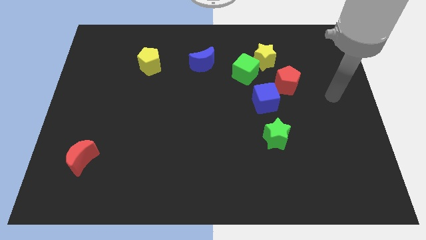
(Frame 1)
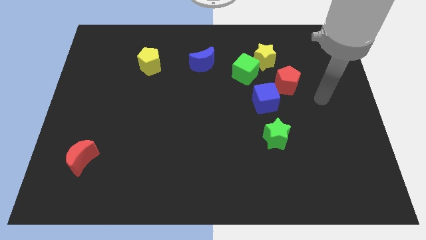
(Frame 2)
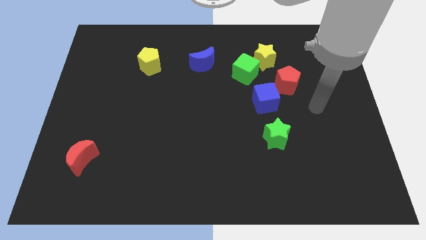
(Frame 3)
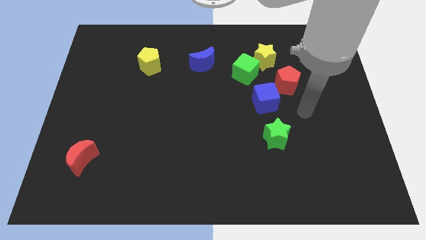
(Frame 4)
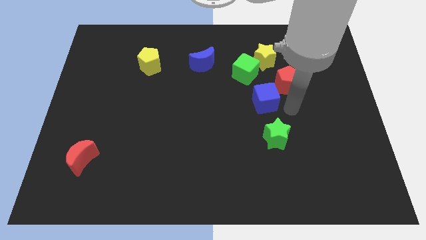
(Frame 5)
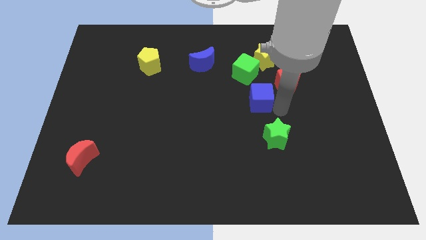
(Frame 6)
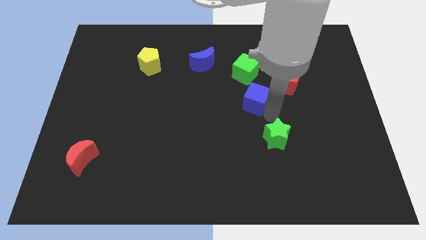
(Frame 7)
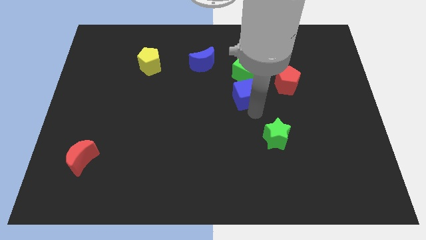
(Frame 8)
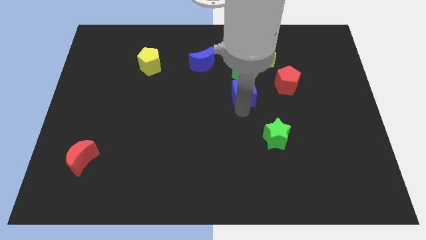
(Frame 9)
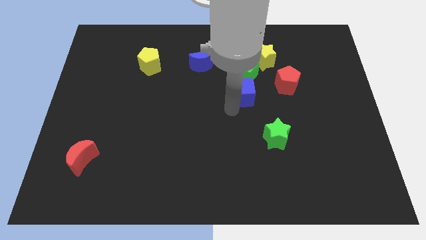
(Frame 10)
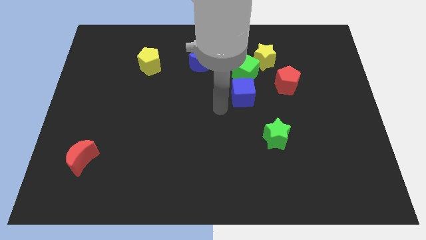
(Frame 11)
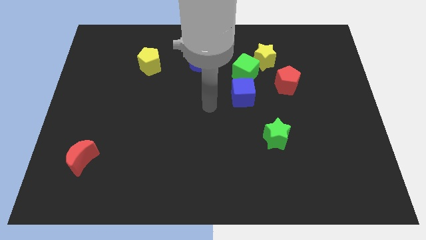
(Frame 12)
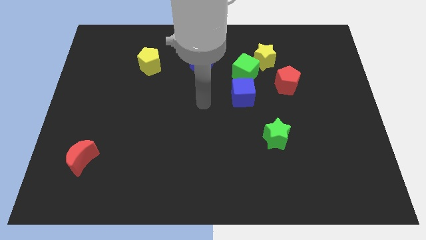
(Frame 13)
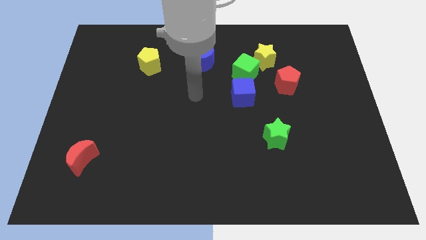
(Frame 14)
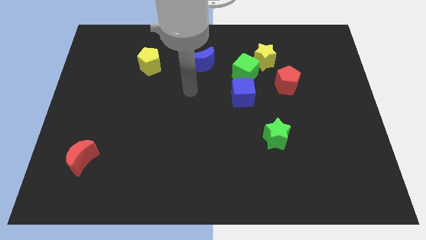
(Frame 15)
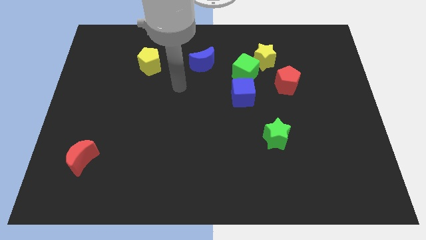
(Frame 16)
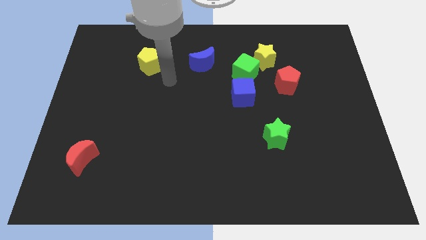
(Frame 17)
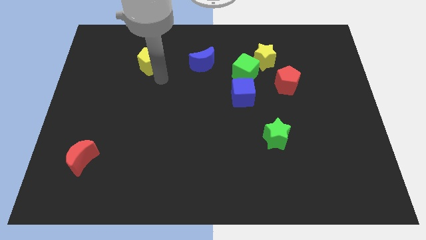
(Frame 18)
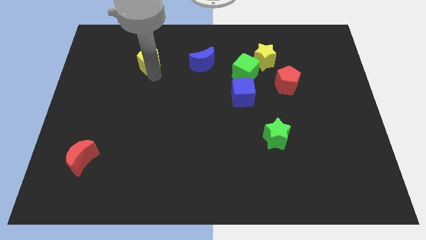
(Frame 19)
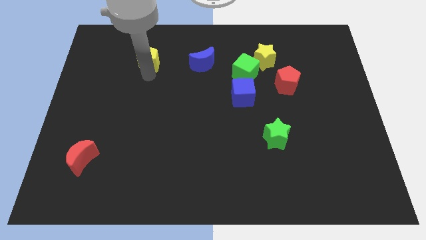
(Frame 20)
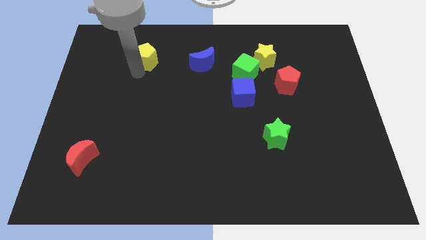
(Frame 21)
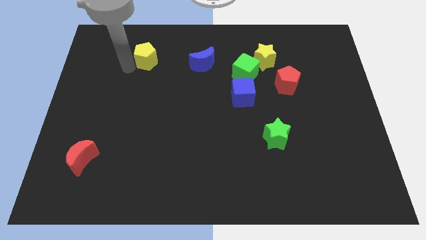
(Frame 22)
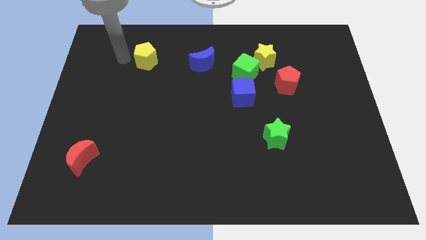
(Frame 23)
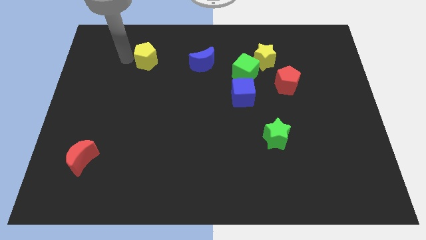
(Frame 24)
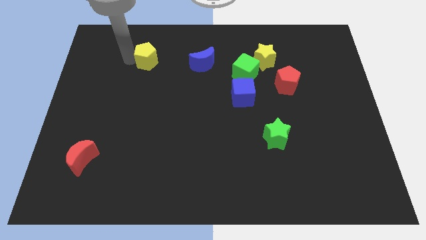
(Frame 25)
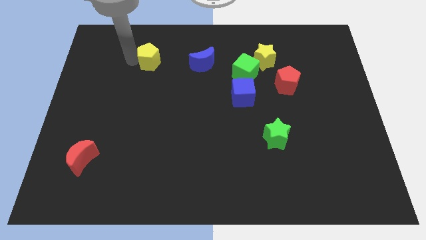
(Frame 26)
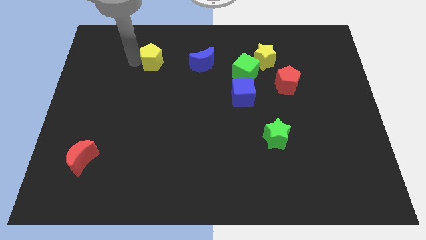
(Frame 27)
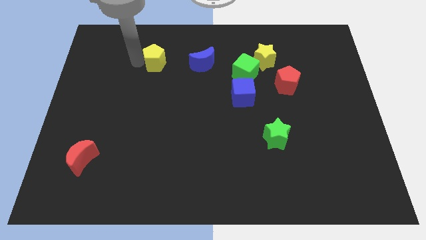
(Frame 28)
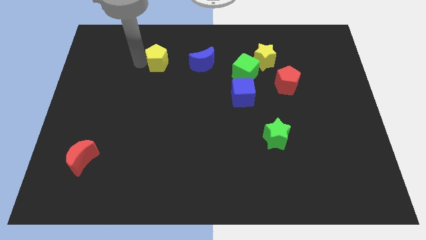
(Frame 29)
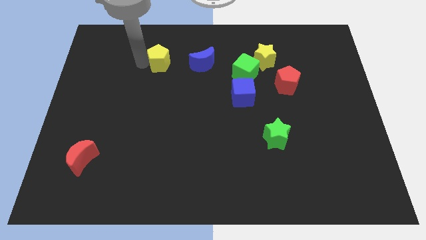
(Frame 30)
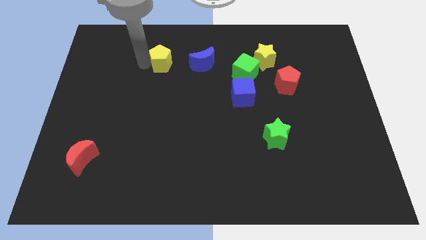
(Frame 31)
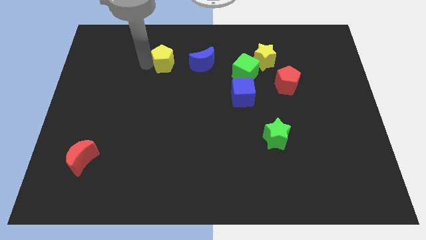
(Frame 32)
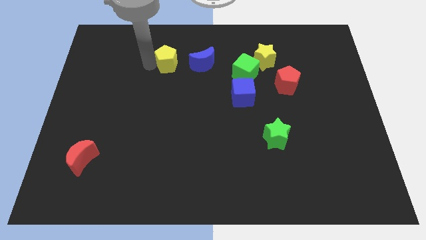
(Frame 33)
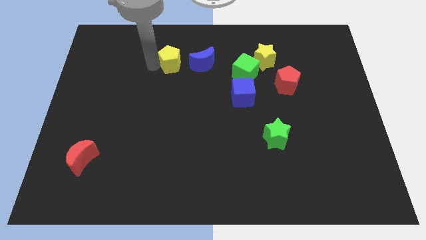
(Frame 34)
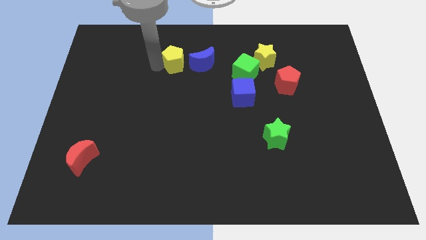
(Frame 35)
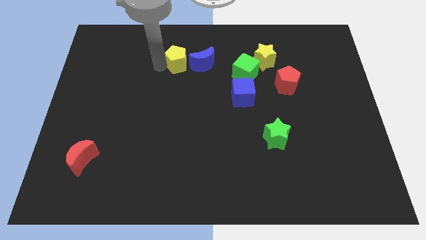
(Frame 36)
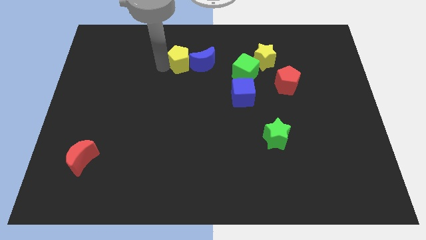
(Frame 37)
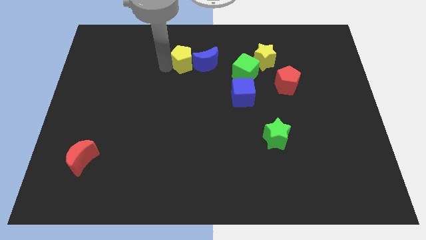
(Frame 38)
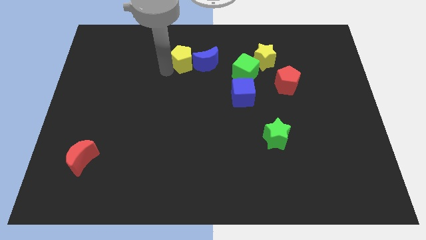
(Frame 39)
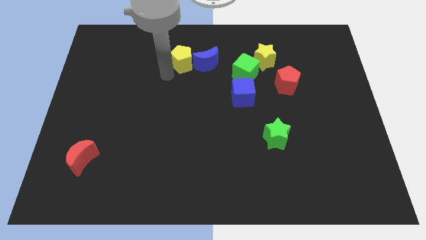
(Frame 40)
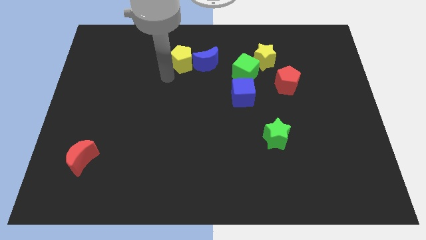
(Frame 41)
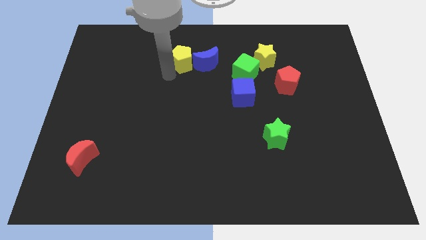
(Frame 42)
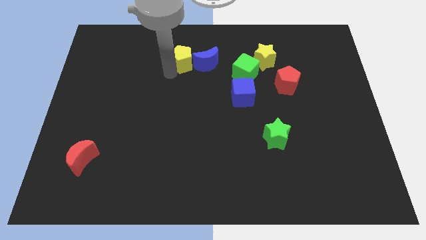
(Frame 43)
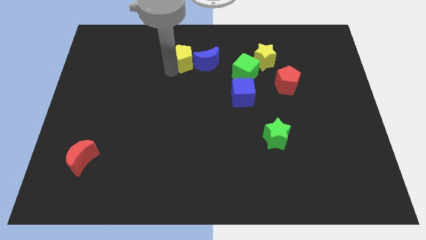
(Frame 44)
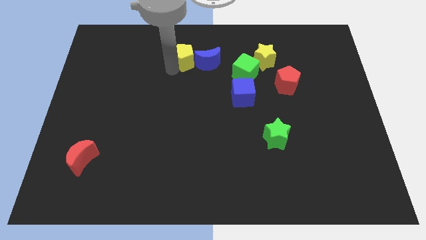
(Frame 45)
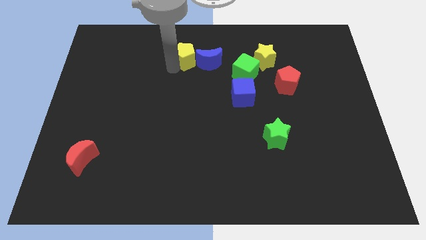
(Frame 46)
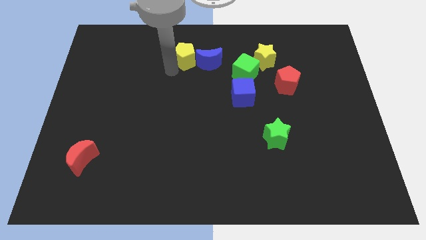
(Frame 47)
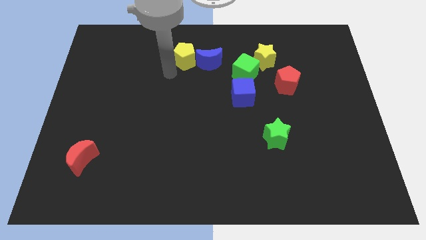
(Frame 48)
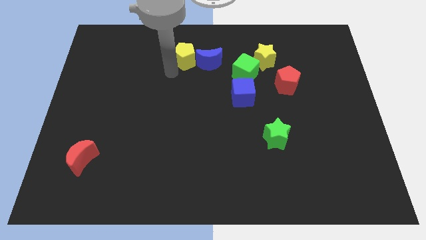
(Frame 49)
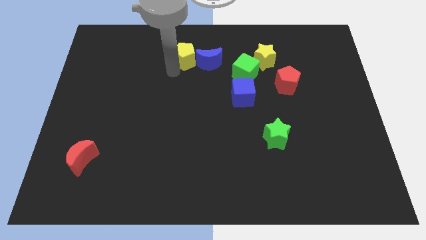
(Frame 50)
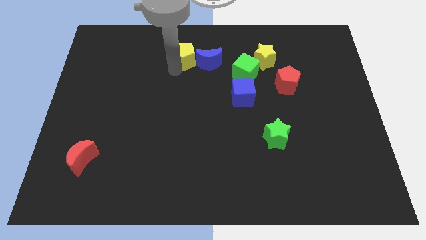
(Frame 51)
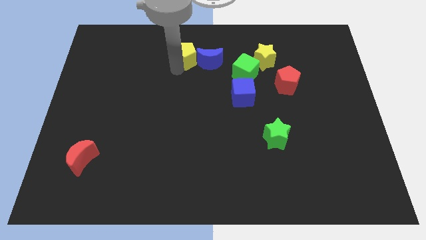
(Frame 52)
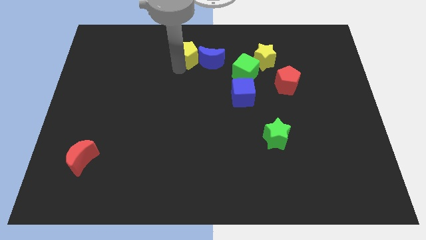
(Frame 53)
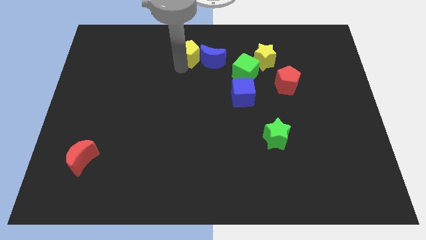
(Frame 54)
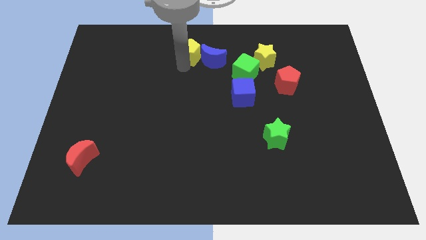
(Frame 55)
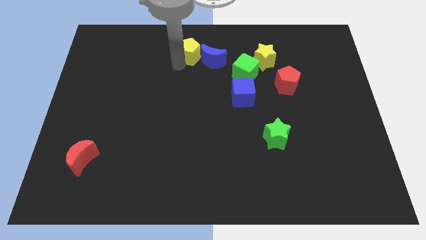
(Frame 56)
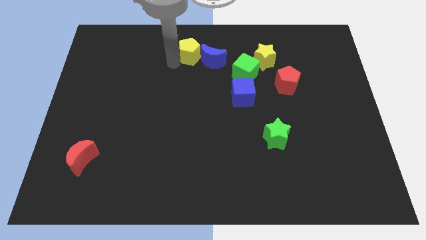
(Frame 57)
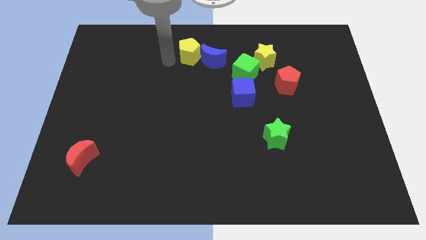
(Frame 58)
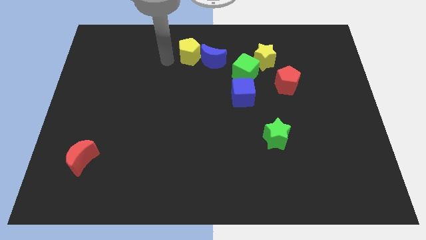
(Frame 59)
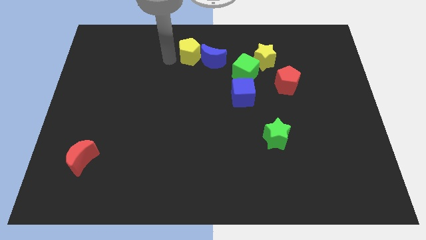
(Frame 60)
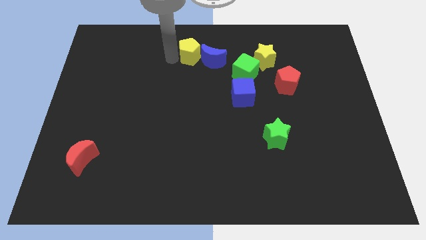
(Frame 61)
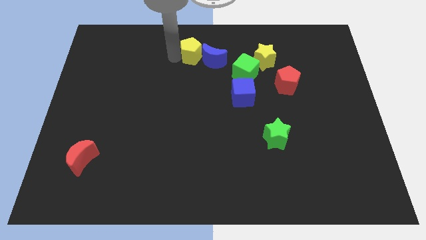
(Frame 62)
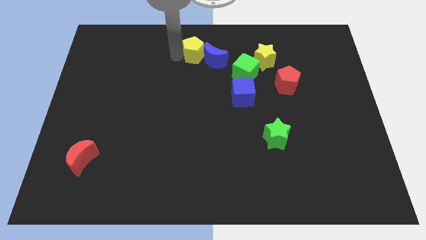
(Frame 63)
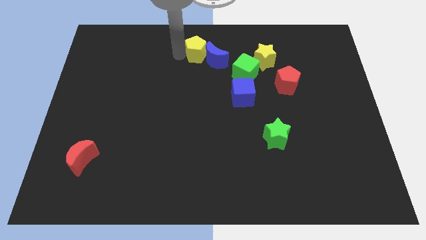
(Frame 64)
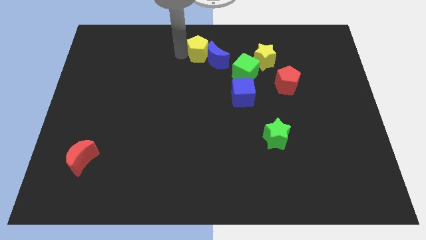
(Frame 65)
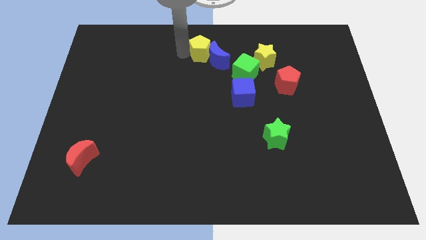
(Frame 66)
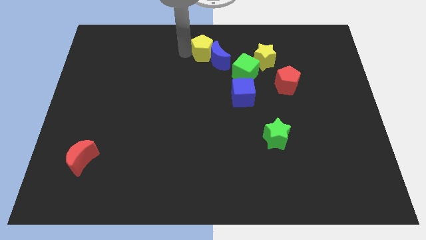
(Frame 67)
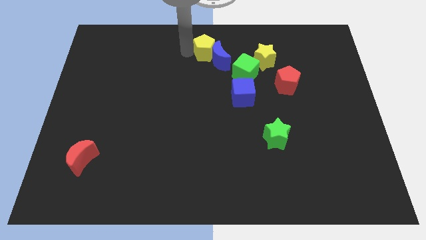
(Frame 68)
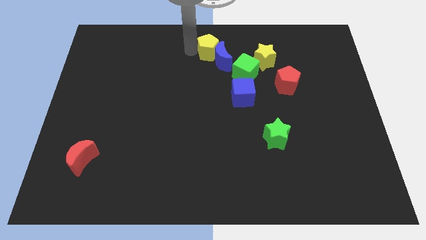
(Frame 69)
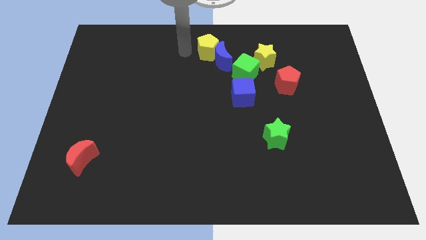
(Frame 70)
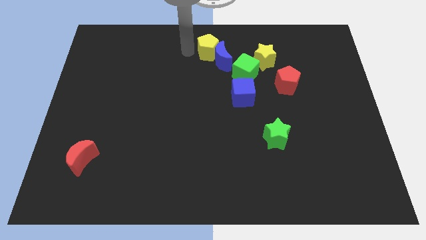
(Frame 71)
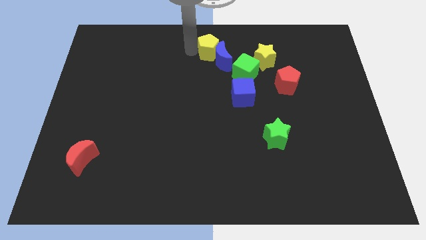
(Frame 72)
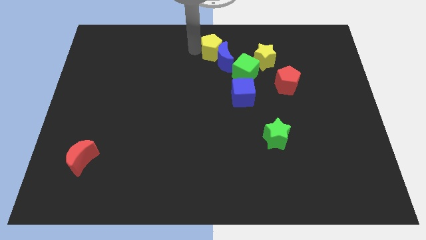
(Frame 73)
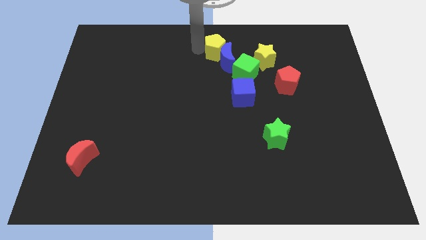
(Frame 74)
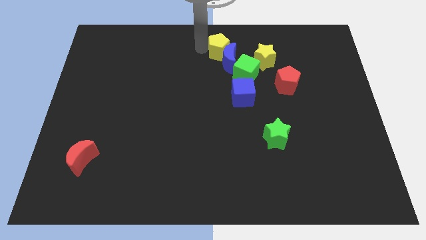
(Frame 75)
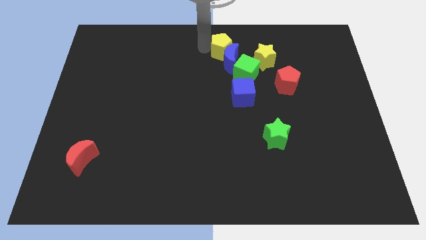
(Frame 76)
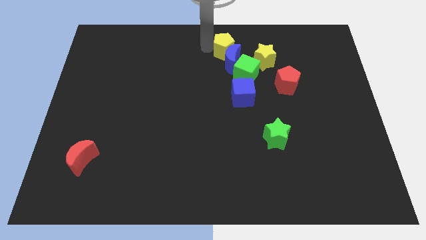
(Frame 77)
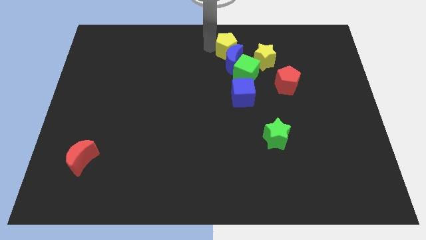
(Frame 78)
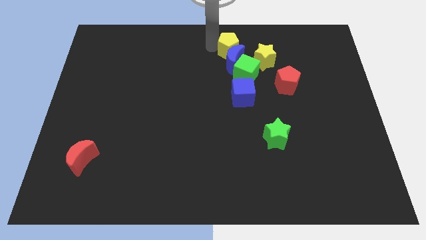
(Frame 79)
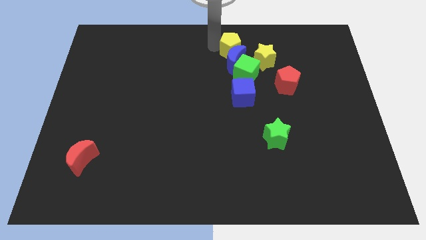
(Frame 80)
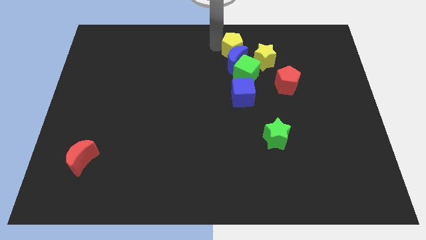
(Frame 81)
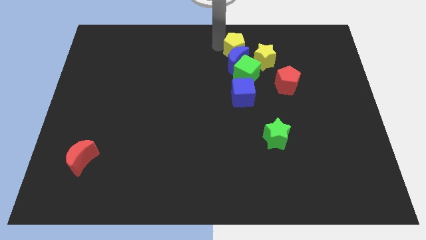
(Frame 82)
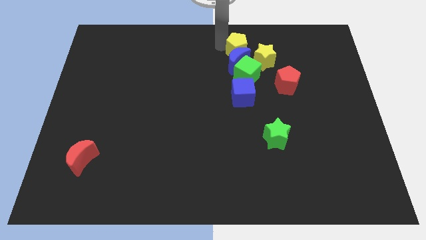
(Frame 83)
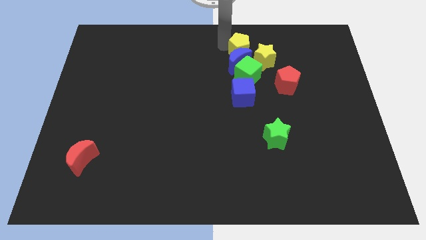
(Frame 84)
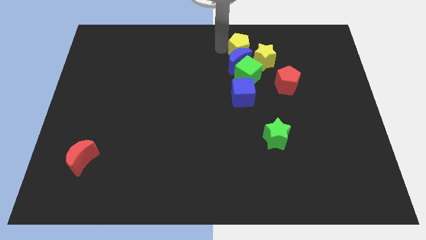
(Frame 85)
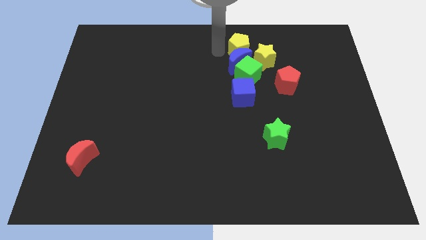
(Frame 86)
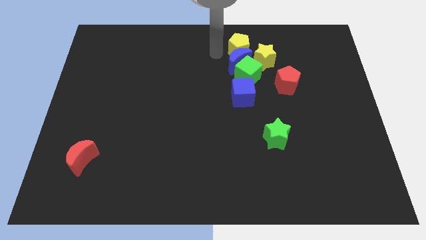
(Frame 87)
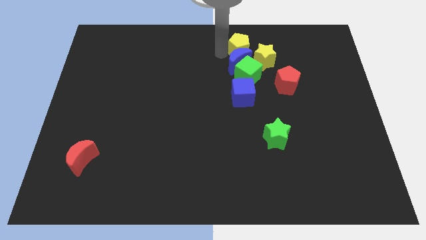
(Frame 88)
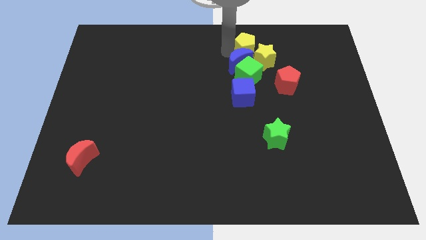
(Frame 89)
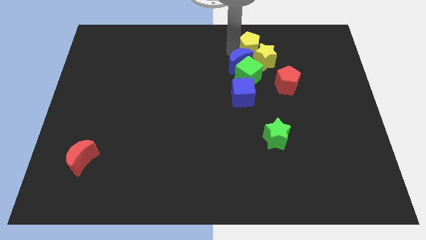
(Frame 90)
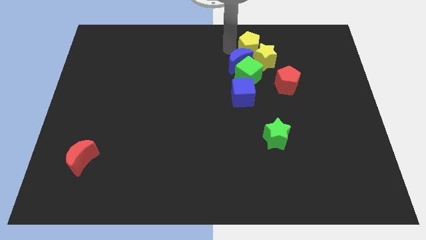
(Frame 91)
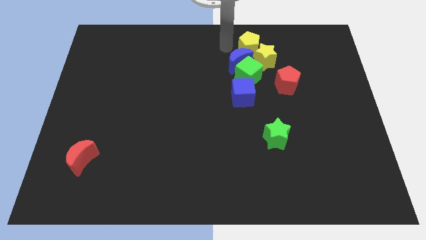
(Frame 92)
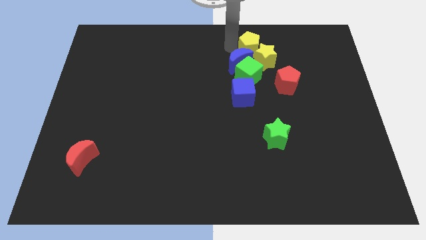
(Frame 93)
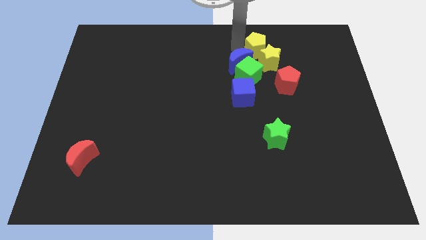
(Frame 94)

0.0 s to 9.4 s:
push the yellow pentagon to the top right of the green cube
